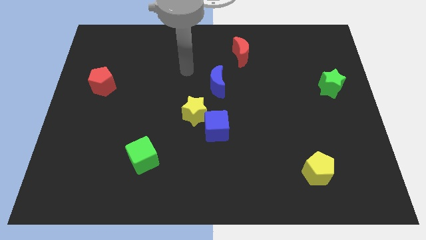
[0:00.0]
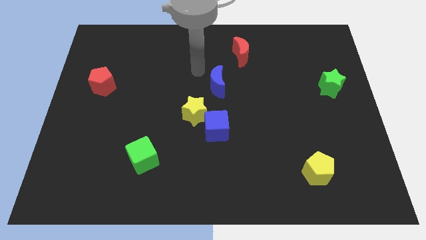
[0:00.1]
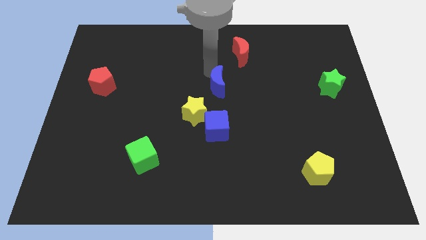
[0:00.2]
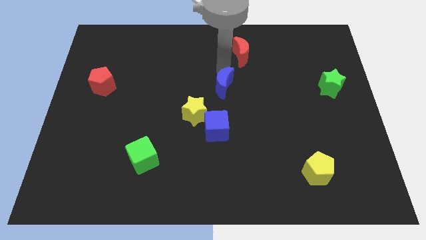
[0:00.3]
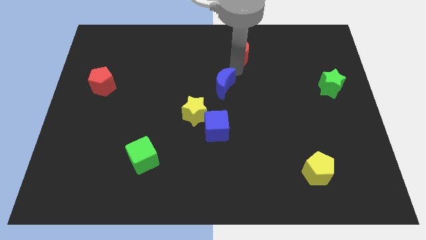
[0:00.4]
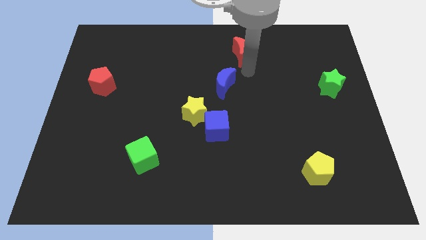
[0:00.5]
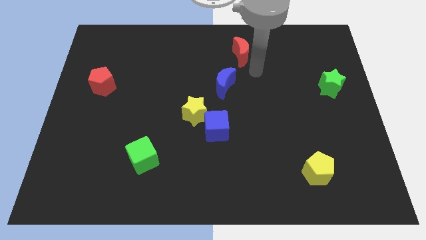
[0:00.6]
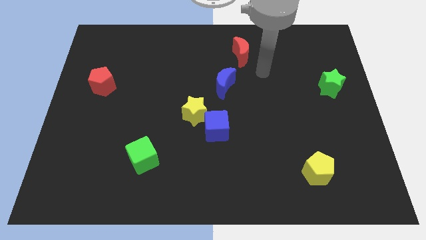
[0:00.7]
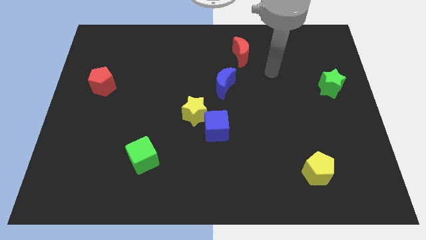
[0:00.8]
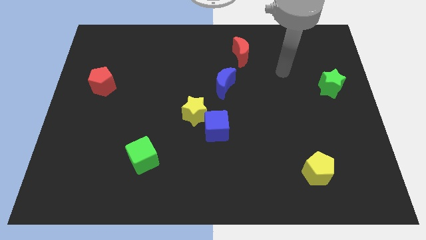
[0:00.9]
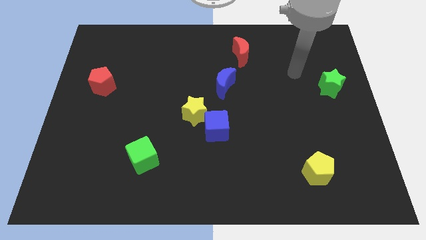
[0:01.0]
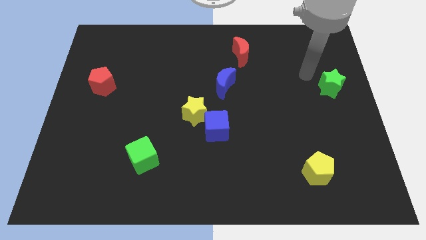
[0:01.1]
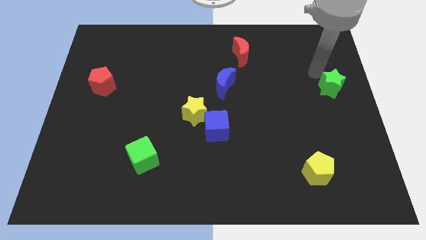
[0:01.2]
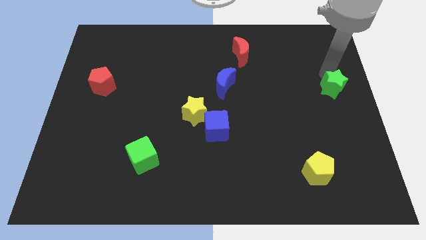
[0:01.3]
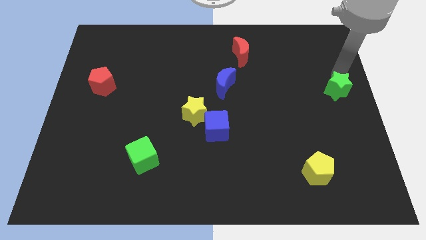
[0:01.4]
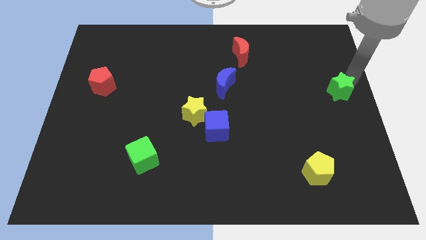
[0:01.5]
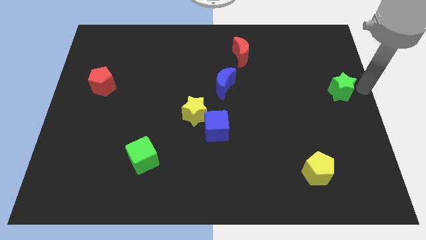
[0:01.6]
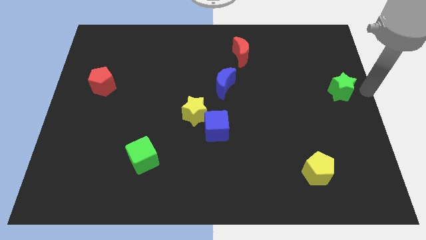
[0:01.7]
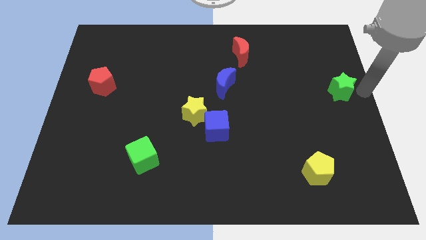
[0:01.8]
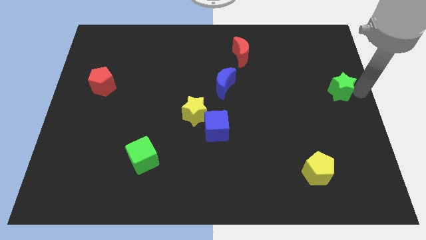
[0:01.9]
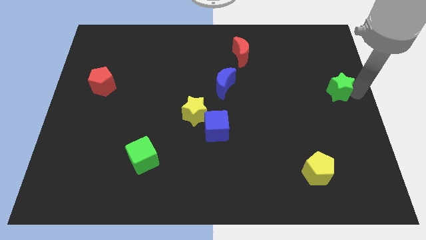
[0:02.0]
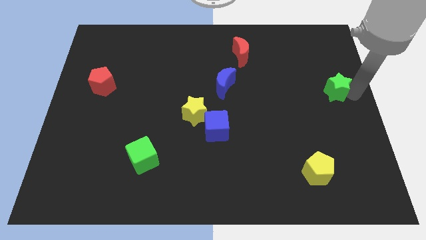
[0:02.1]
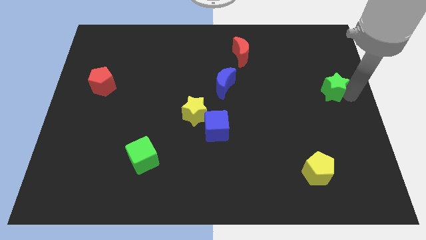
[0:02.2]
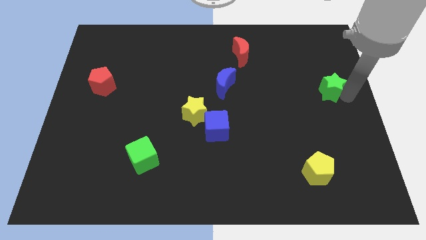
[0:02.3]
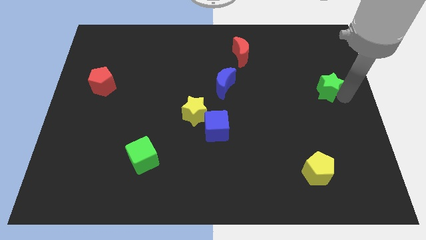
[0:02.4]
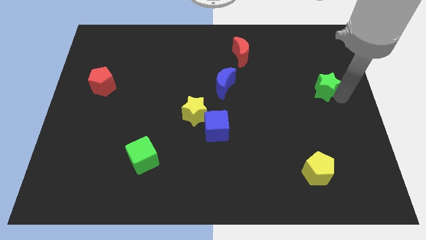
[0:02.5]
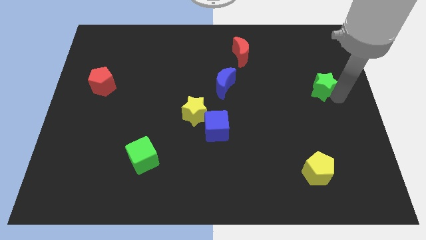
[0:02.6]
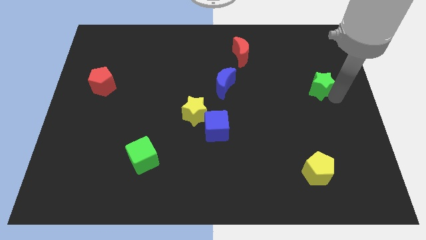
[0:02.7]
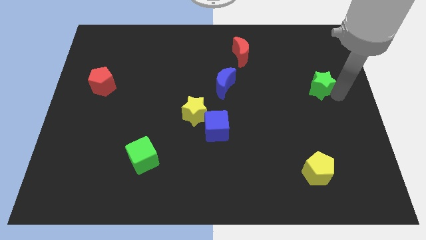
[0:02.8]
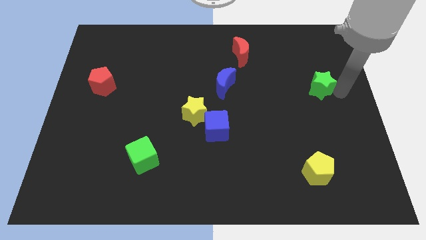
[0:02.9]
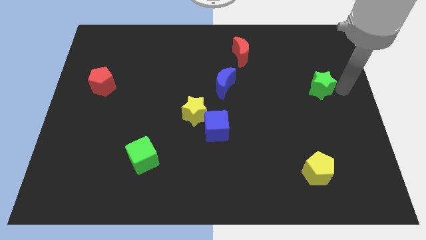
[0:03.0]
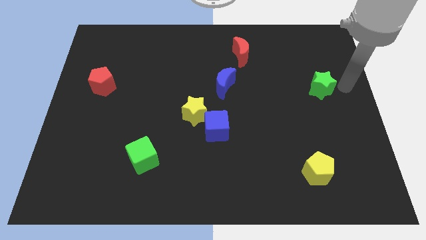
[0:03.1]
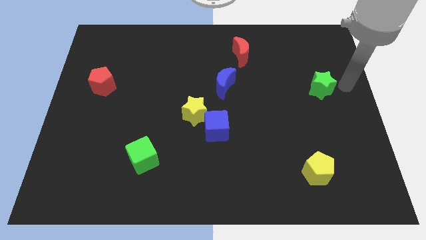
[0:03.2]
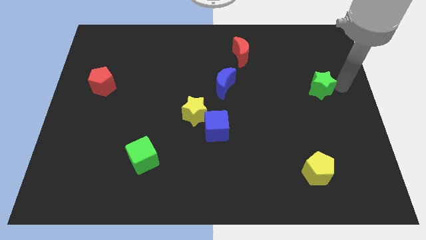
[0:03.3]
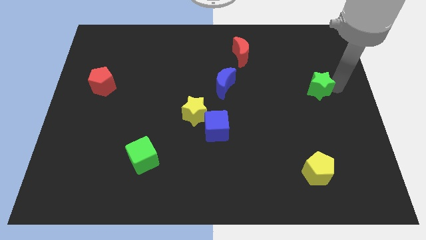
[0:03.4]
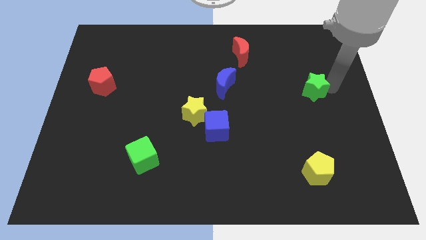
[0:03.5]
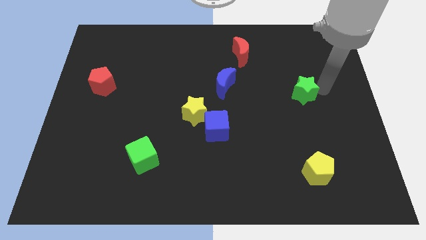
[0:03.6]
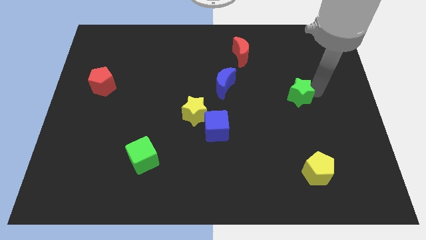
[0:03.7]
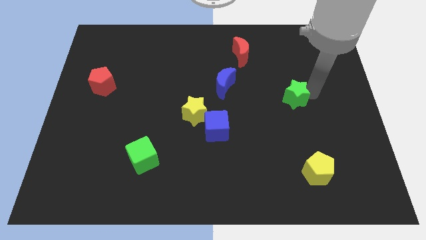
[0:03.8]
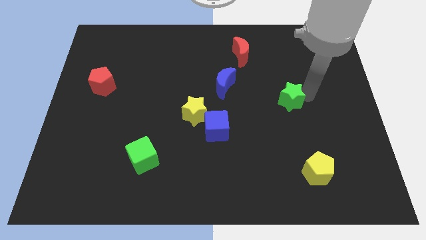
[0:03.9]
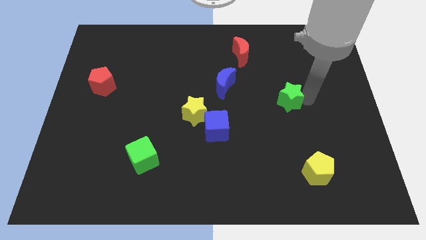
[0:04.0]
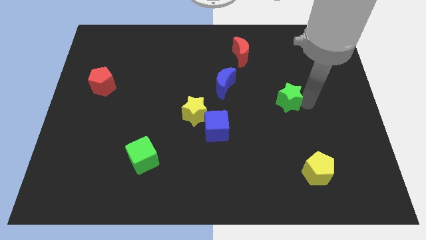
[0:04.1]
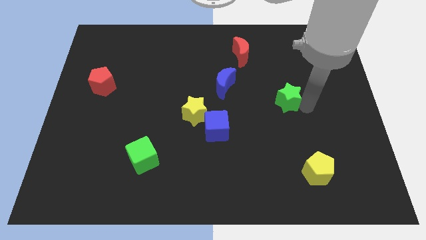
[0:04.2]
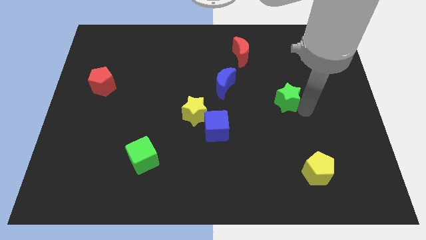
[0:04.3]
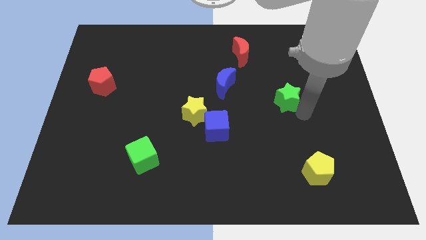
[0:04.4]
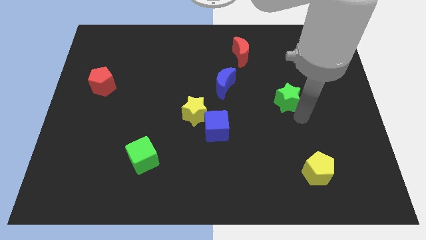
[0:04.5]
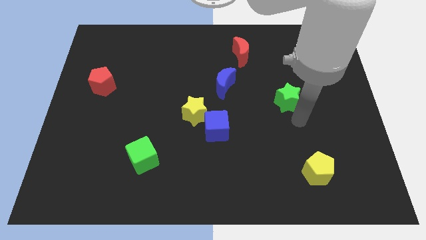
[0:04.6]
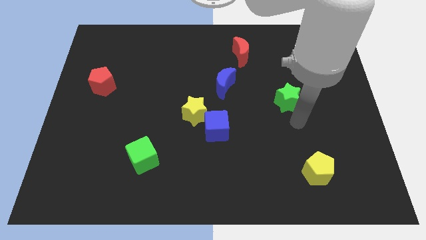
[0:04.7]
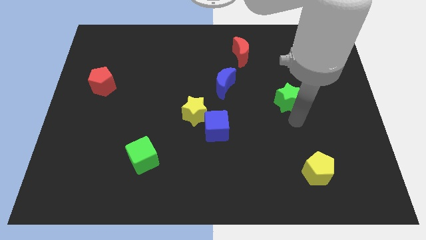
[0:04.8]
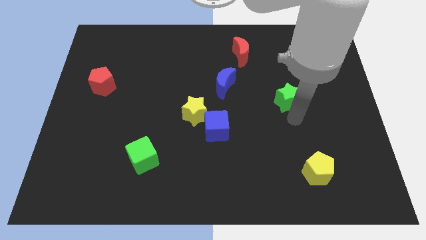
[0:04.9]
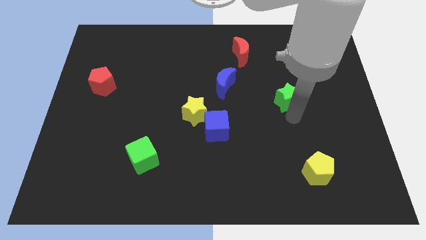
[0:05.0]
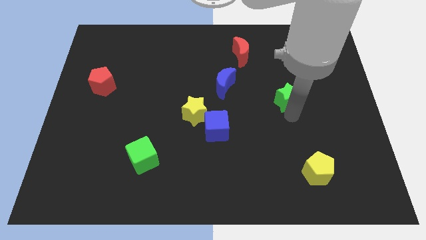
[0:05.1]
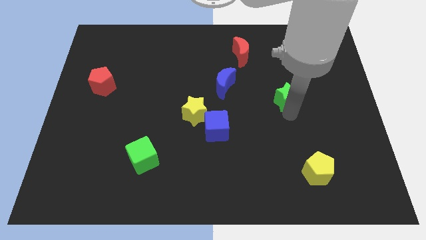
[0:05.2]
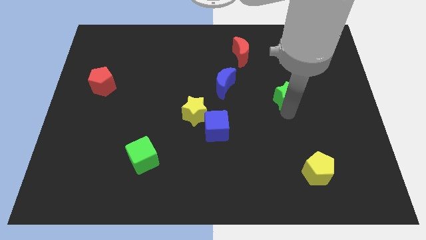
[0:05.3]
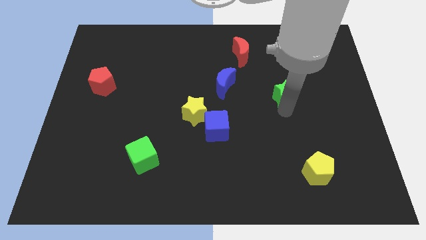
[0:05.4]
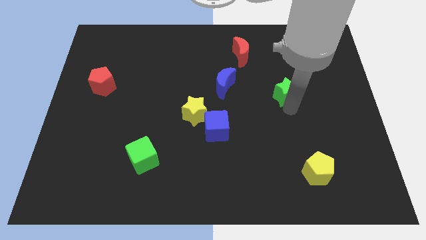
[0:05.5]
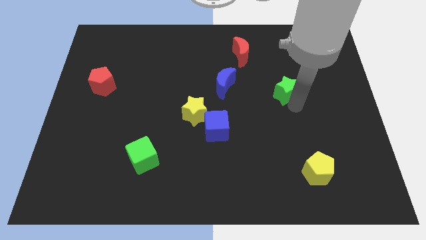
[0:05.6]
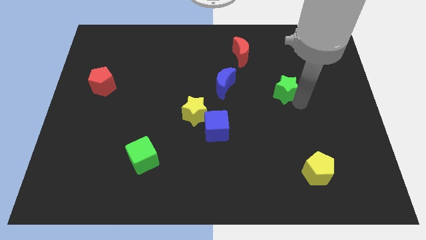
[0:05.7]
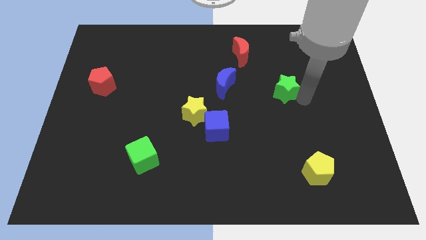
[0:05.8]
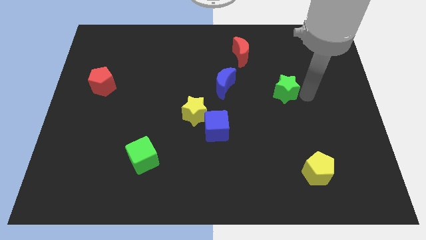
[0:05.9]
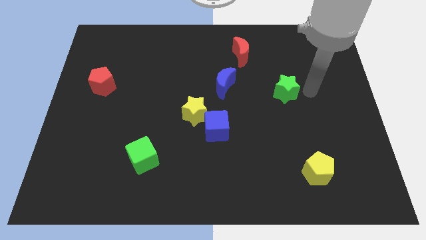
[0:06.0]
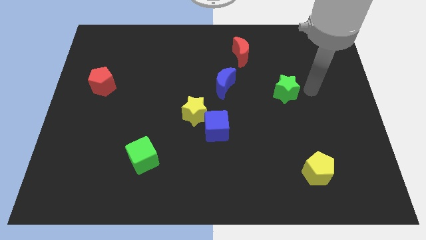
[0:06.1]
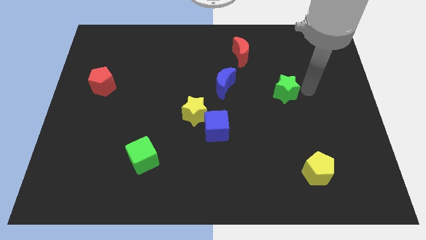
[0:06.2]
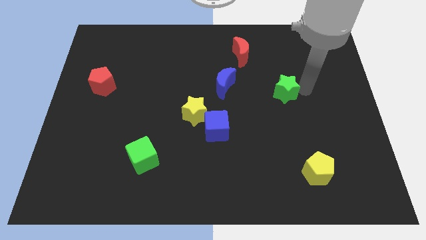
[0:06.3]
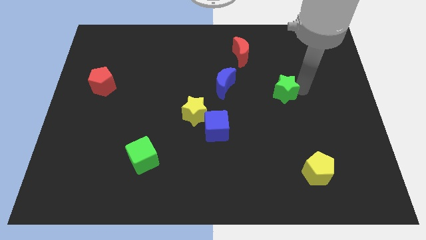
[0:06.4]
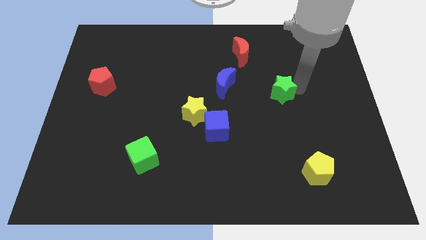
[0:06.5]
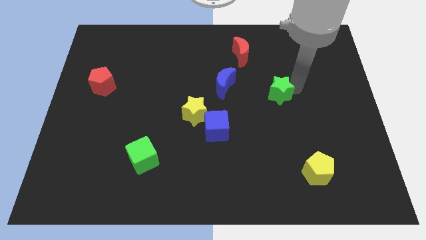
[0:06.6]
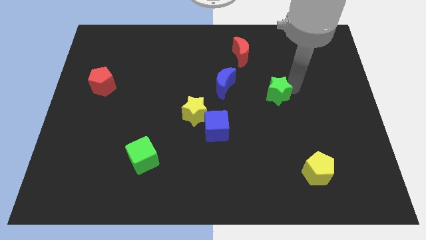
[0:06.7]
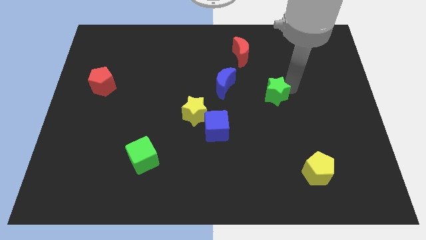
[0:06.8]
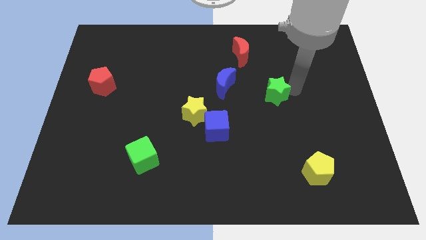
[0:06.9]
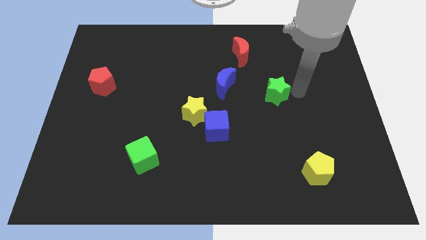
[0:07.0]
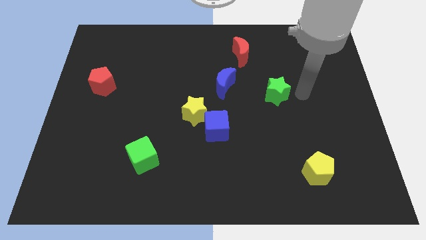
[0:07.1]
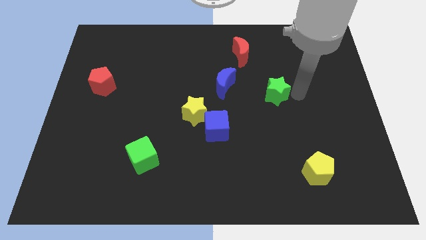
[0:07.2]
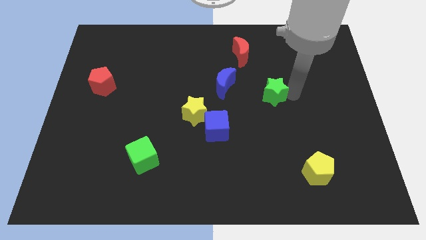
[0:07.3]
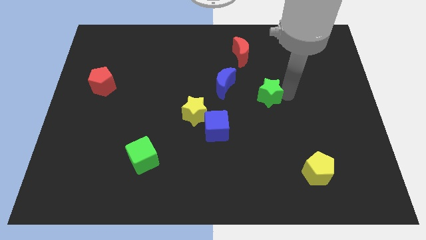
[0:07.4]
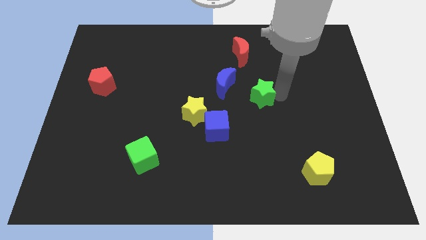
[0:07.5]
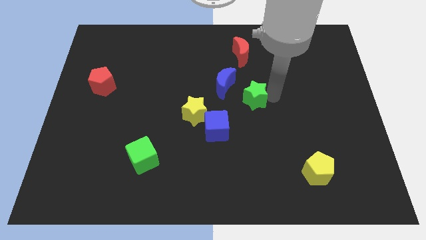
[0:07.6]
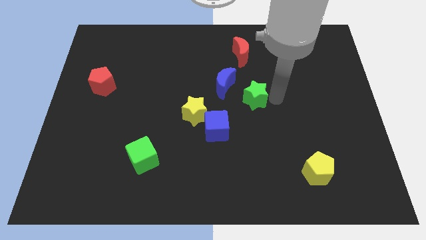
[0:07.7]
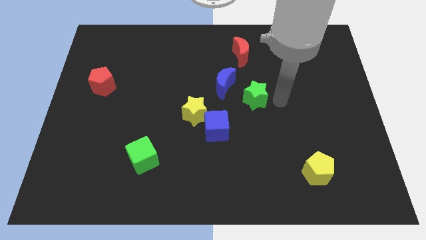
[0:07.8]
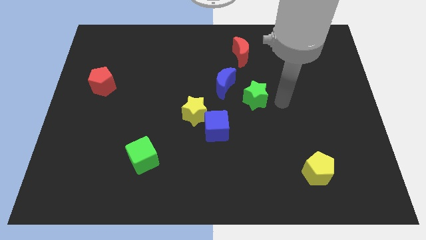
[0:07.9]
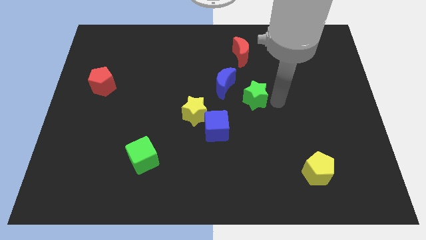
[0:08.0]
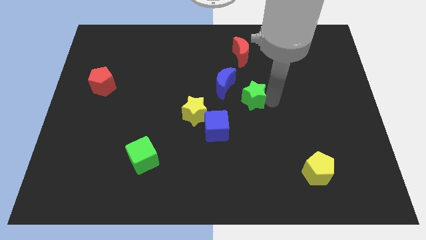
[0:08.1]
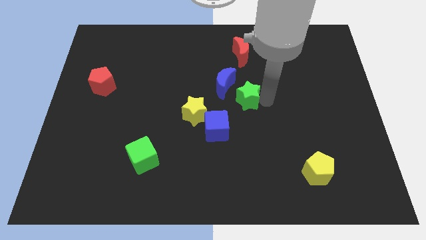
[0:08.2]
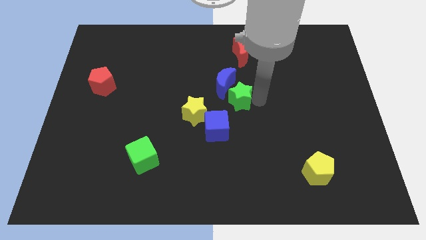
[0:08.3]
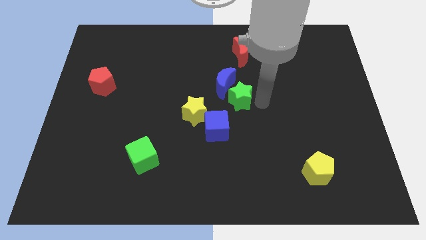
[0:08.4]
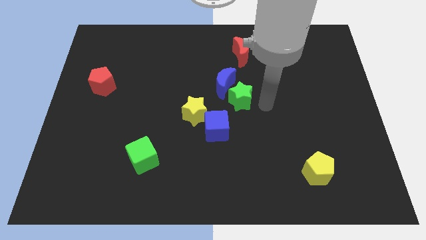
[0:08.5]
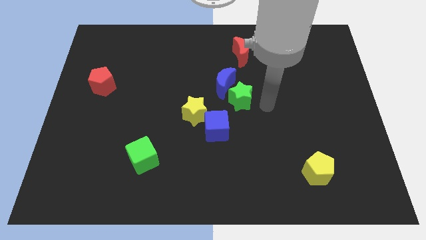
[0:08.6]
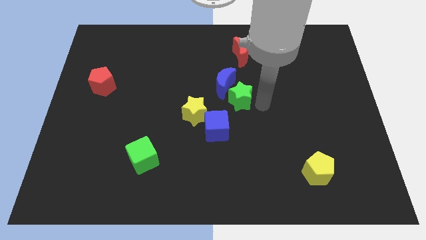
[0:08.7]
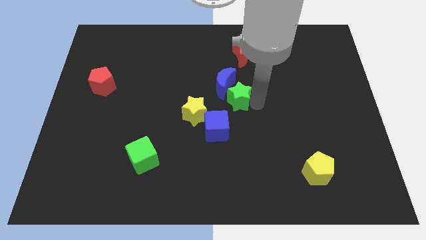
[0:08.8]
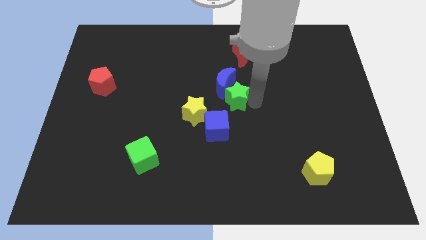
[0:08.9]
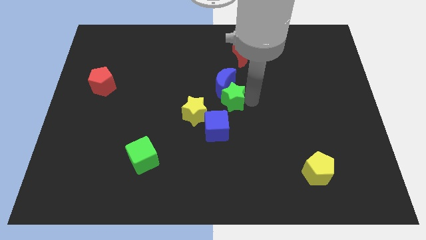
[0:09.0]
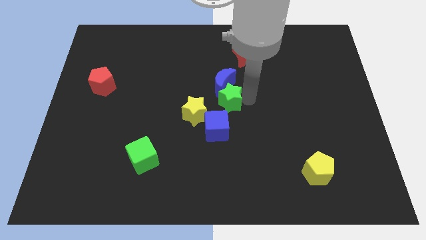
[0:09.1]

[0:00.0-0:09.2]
put the green star diagonally down and to the left of the blue moon
